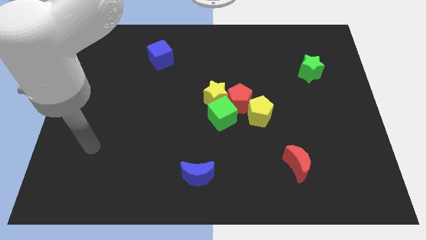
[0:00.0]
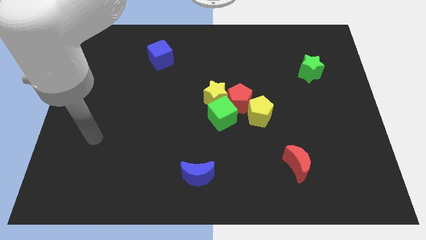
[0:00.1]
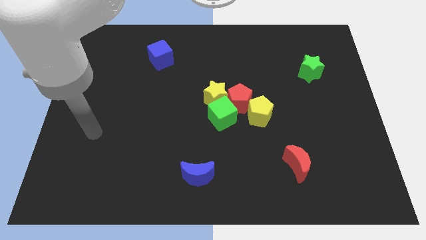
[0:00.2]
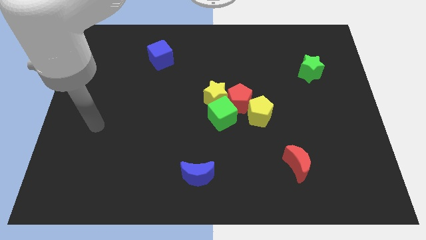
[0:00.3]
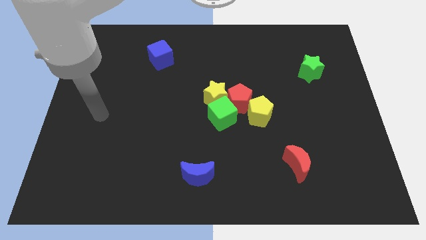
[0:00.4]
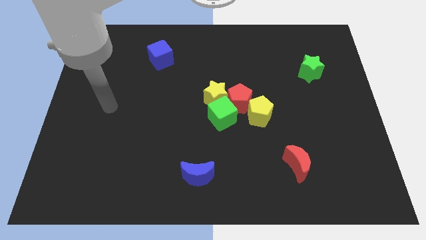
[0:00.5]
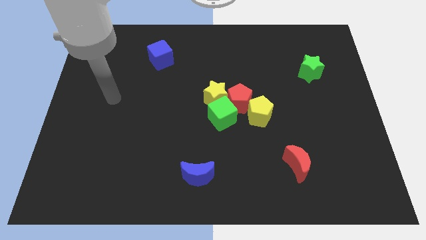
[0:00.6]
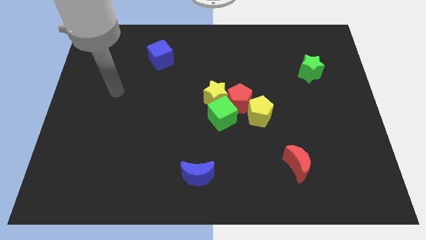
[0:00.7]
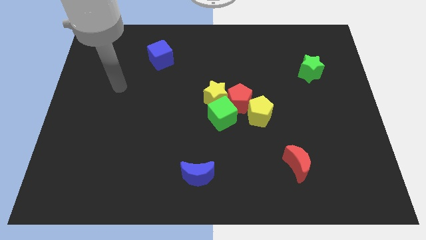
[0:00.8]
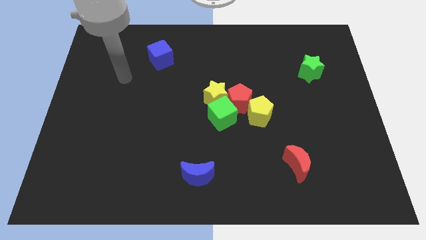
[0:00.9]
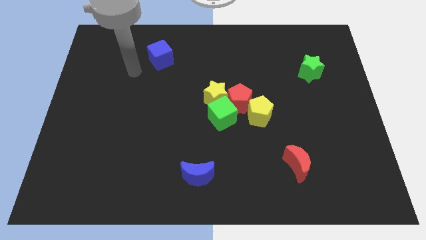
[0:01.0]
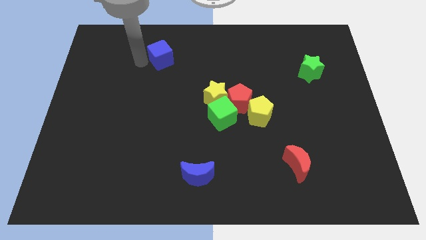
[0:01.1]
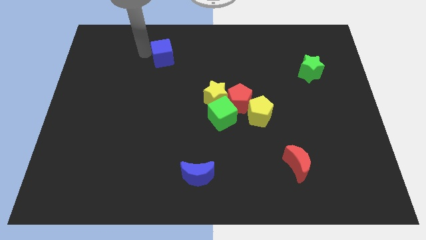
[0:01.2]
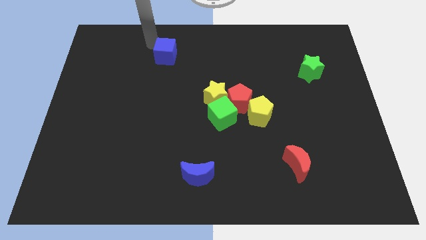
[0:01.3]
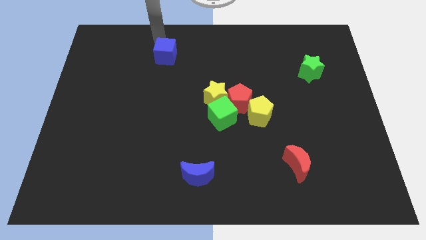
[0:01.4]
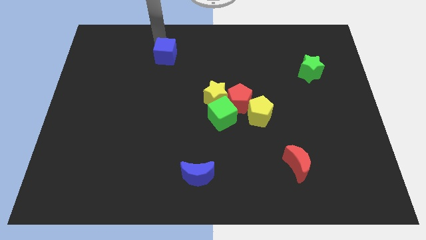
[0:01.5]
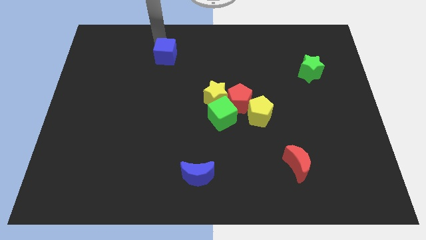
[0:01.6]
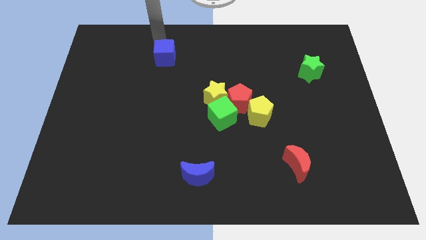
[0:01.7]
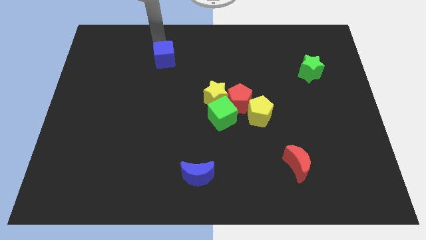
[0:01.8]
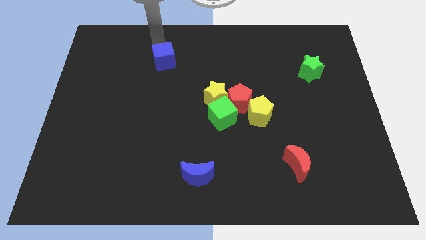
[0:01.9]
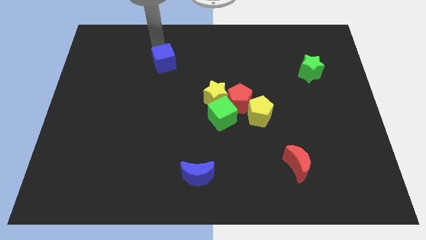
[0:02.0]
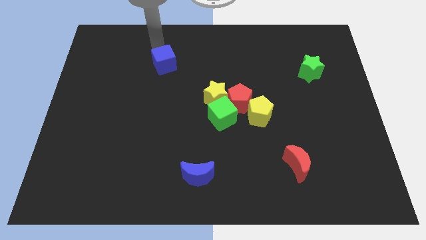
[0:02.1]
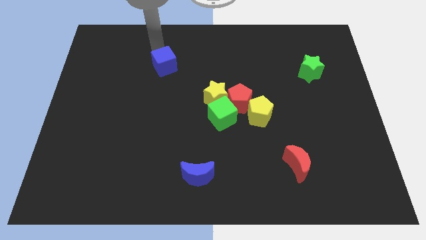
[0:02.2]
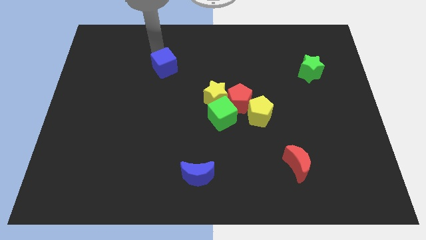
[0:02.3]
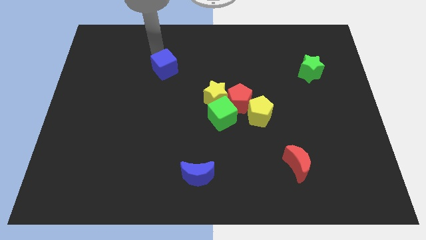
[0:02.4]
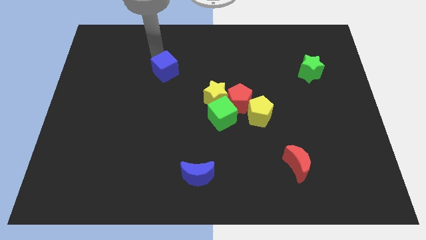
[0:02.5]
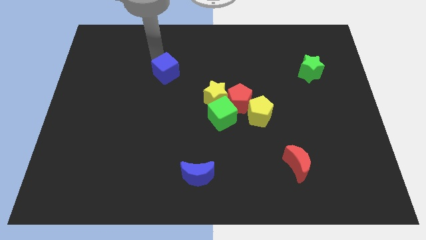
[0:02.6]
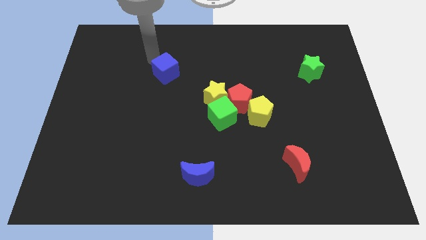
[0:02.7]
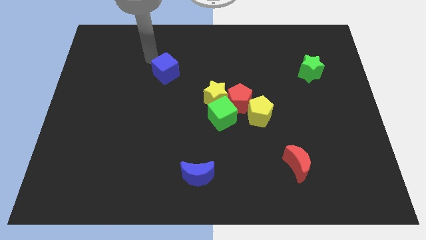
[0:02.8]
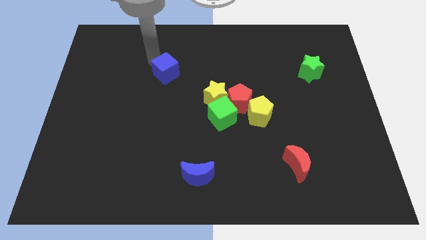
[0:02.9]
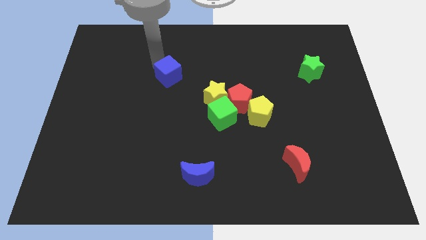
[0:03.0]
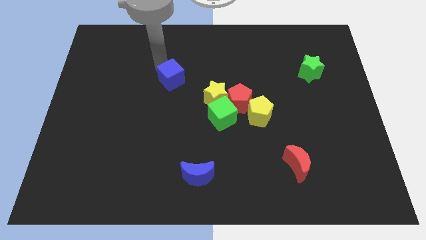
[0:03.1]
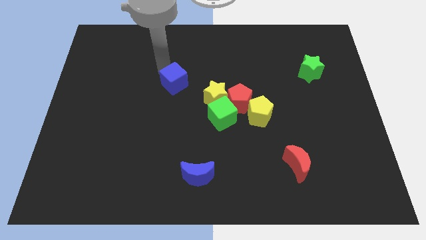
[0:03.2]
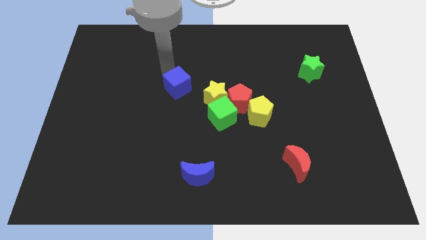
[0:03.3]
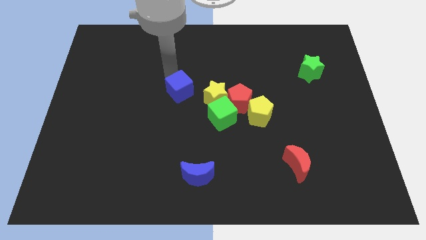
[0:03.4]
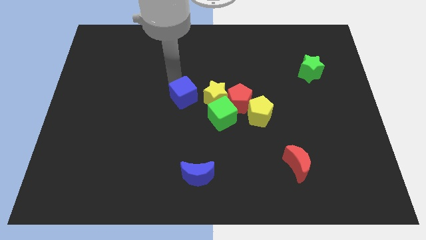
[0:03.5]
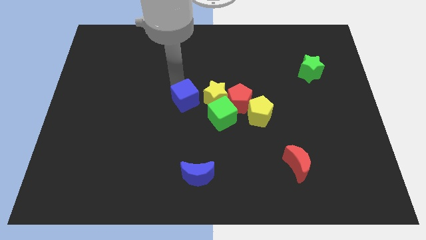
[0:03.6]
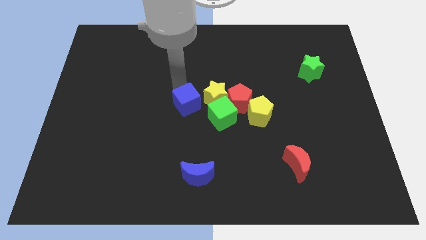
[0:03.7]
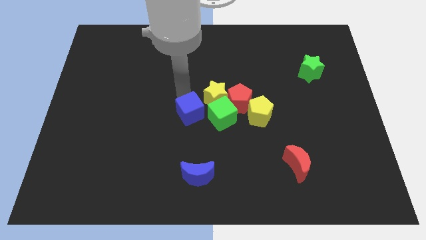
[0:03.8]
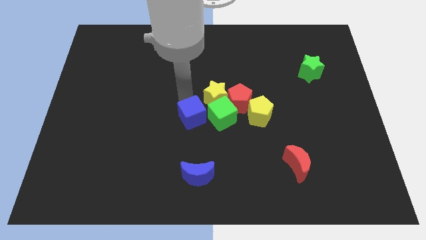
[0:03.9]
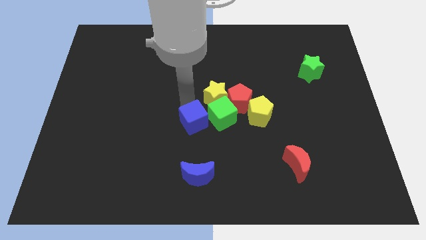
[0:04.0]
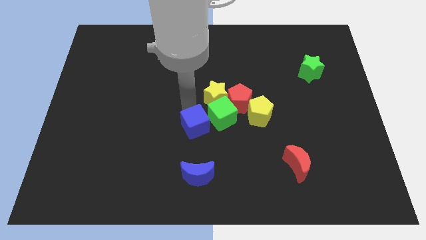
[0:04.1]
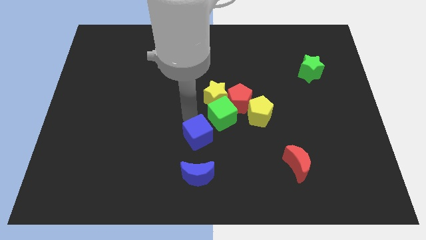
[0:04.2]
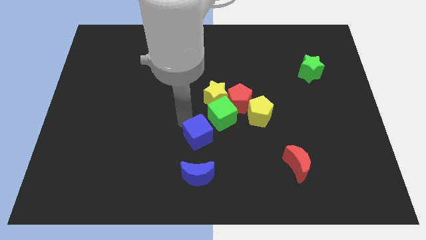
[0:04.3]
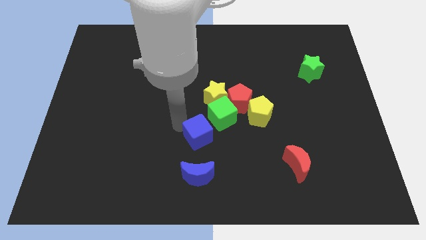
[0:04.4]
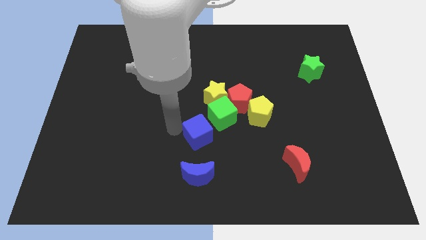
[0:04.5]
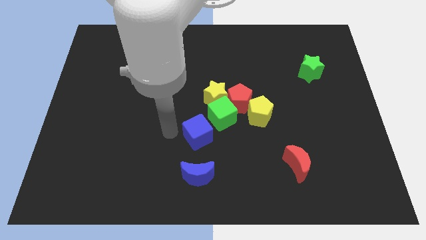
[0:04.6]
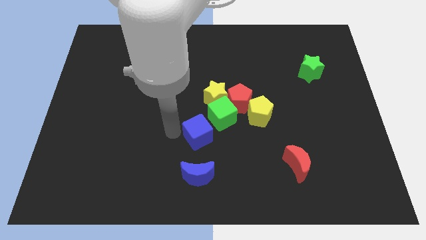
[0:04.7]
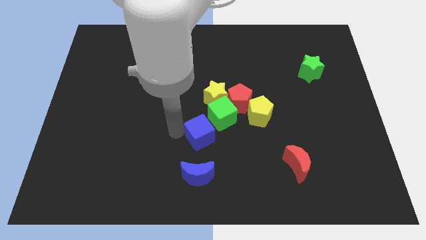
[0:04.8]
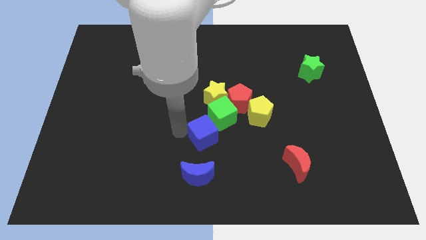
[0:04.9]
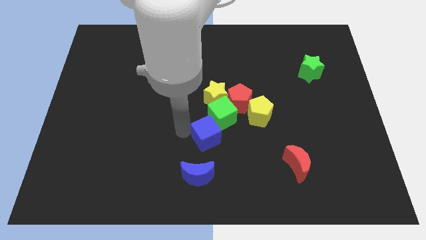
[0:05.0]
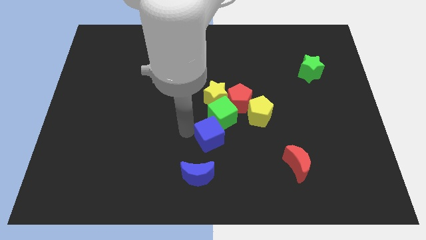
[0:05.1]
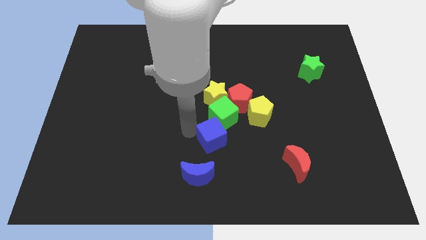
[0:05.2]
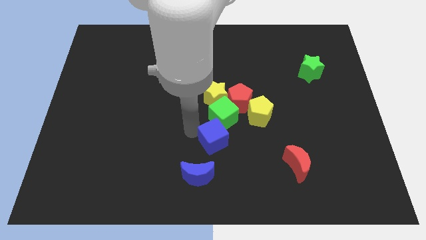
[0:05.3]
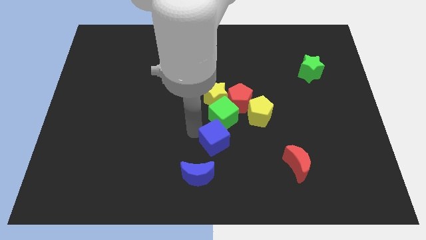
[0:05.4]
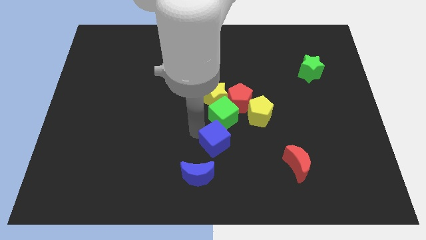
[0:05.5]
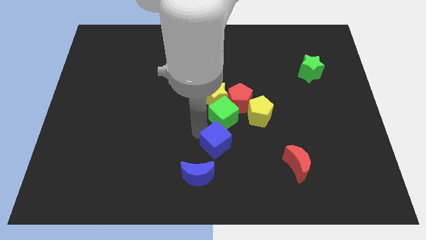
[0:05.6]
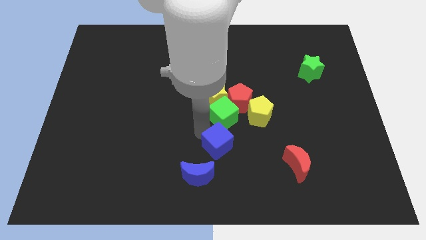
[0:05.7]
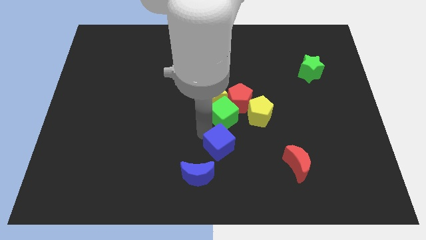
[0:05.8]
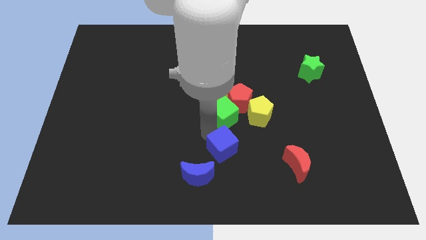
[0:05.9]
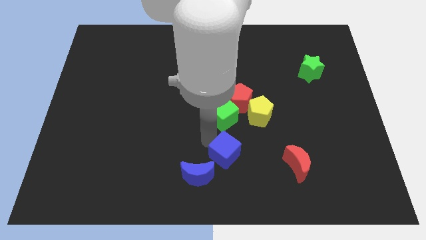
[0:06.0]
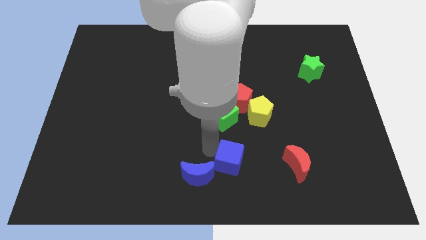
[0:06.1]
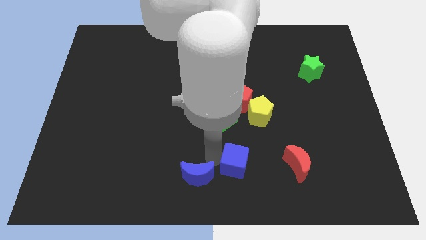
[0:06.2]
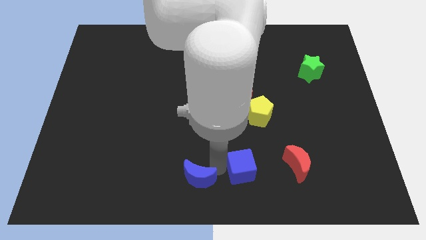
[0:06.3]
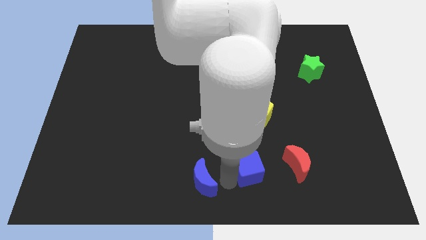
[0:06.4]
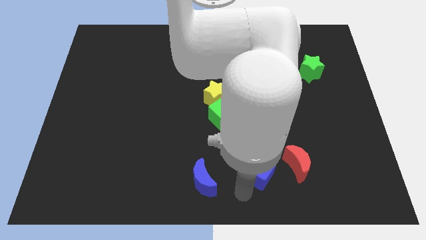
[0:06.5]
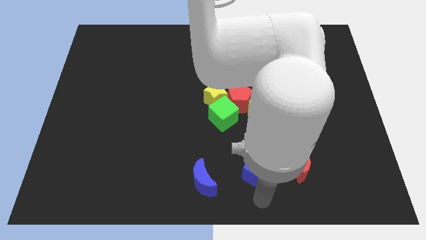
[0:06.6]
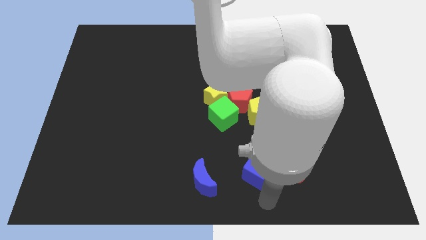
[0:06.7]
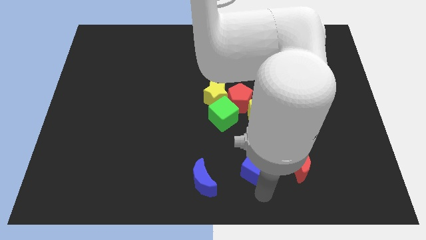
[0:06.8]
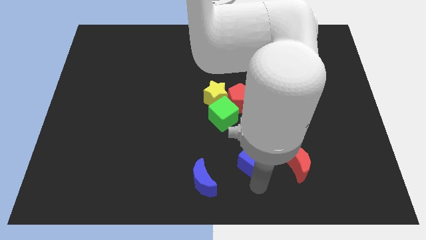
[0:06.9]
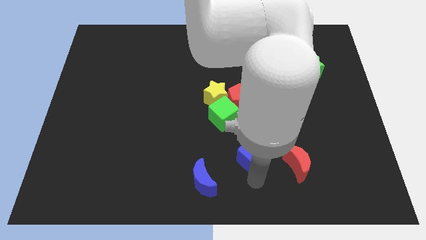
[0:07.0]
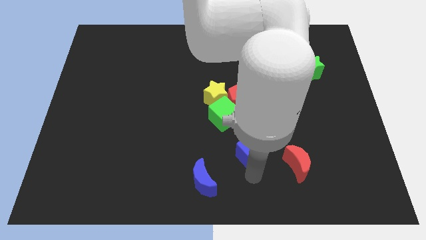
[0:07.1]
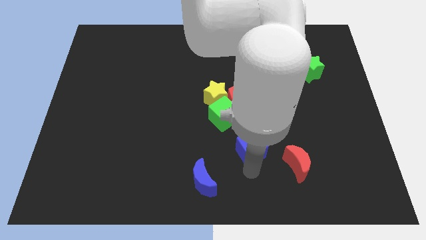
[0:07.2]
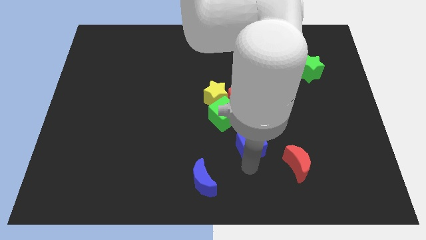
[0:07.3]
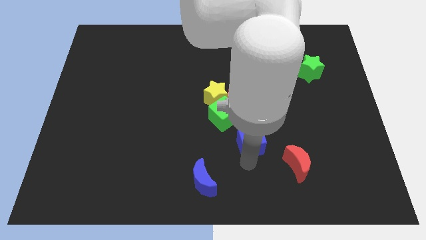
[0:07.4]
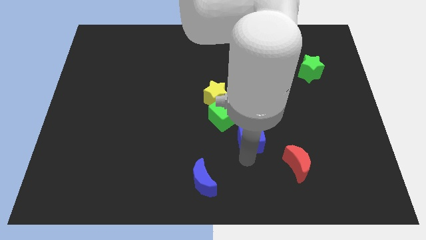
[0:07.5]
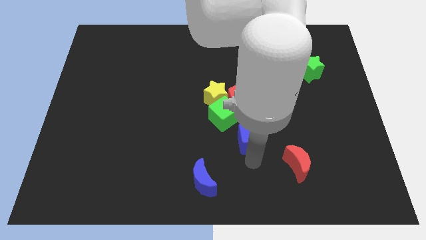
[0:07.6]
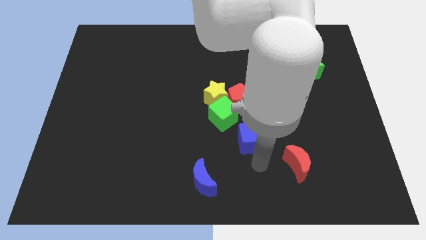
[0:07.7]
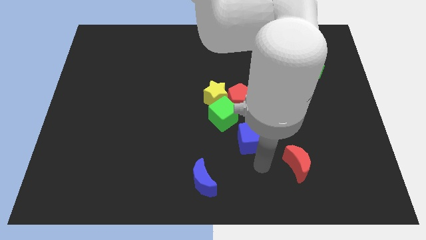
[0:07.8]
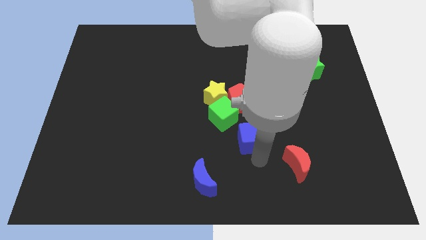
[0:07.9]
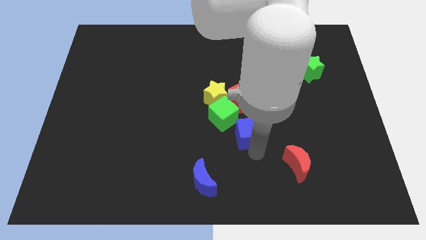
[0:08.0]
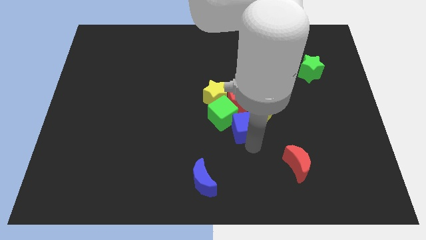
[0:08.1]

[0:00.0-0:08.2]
put the blue cube diagonally down and to the right of the yellow star
